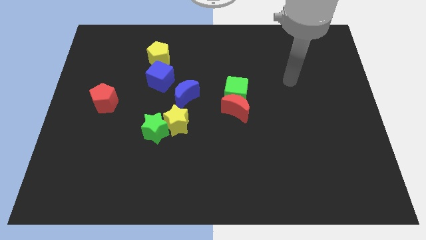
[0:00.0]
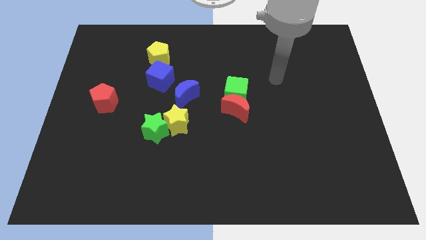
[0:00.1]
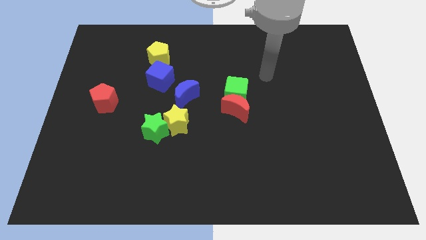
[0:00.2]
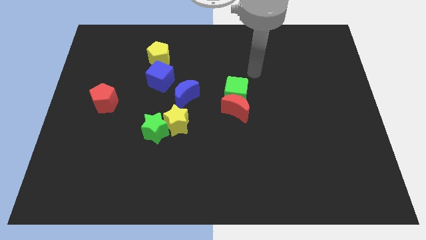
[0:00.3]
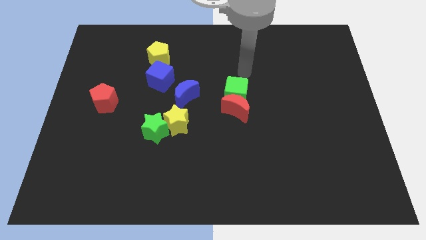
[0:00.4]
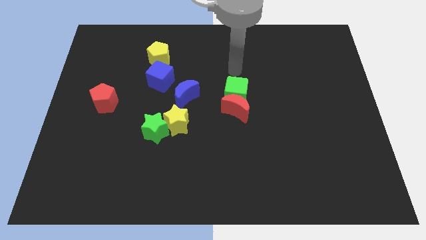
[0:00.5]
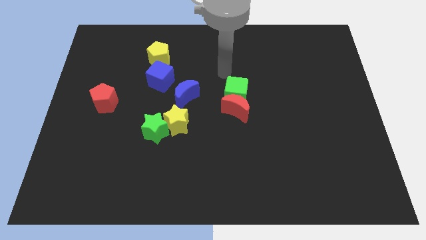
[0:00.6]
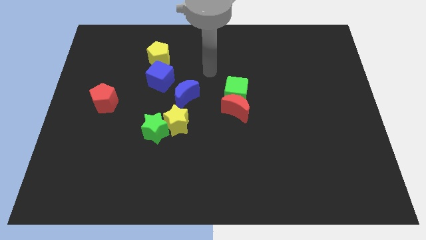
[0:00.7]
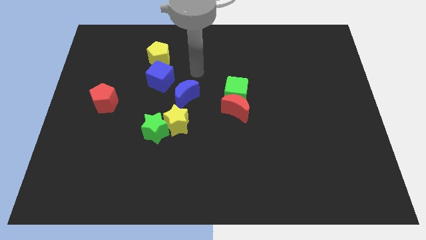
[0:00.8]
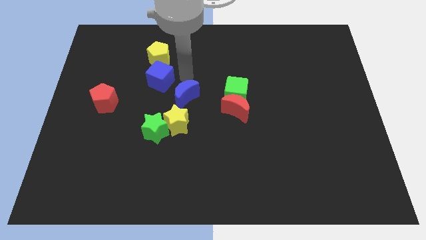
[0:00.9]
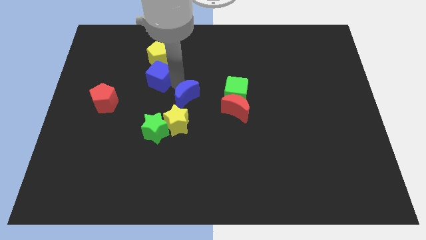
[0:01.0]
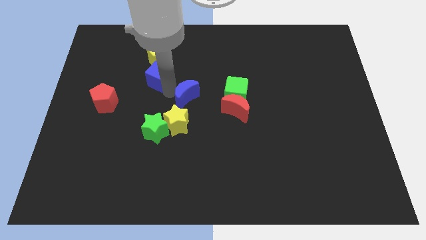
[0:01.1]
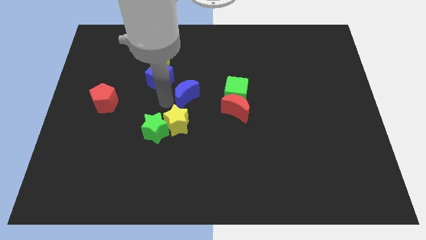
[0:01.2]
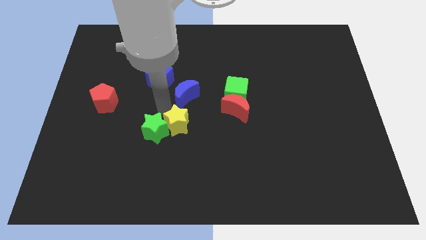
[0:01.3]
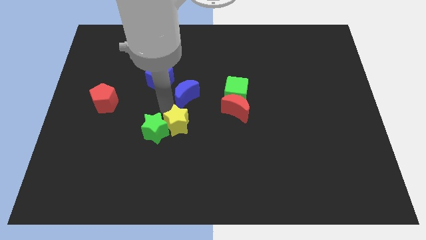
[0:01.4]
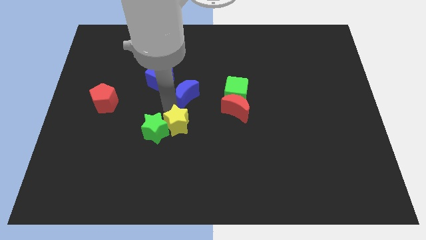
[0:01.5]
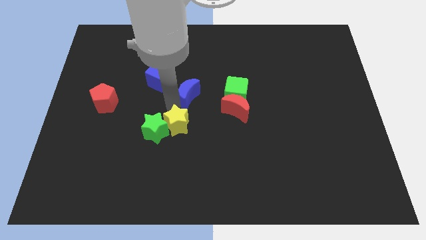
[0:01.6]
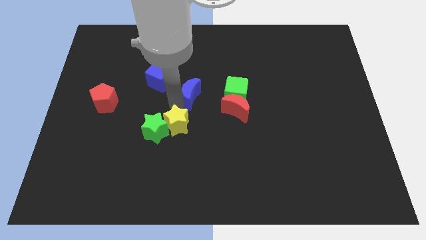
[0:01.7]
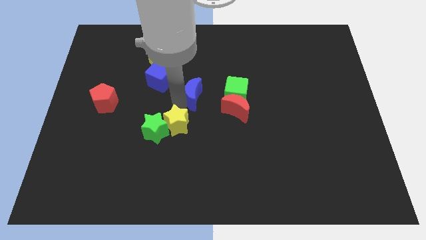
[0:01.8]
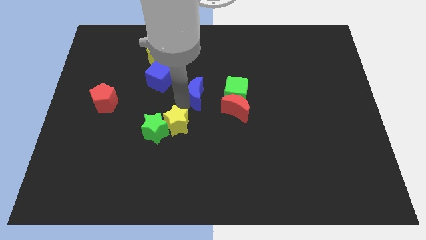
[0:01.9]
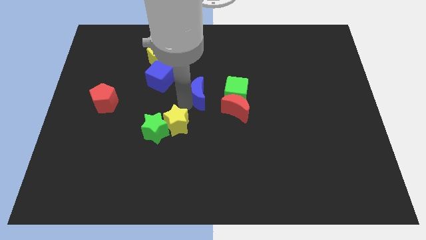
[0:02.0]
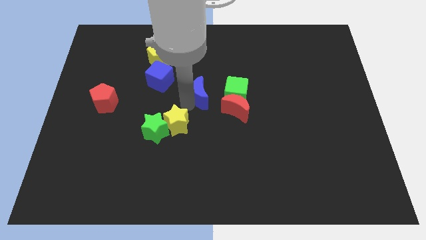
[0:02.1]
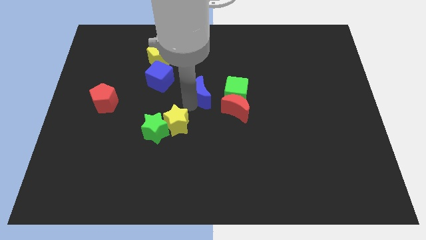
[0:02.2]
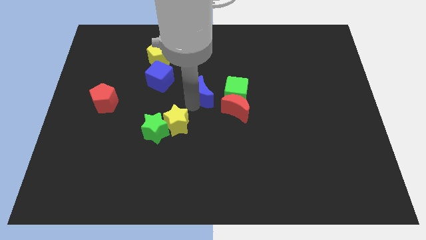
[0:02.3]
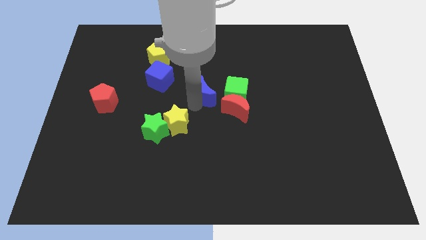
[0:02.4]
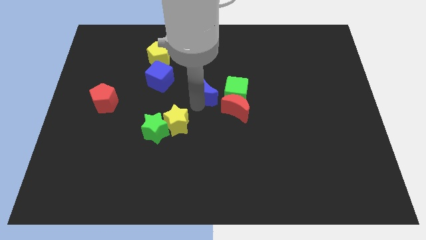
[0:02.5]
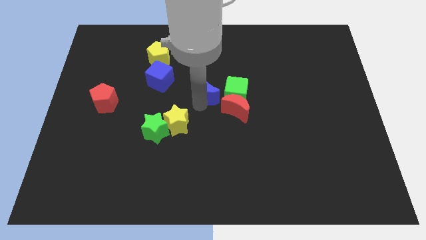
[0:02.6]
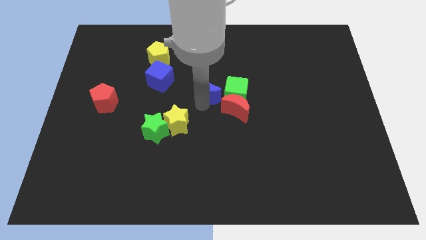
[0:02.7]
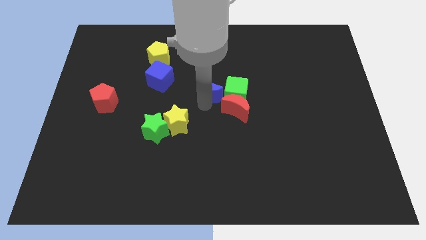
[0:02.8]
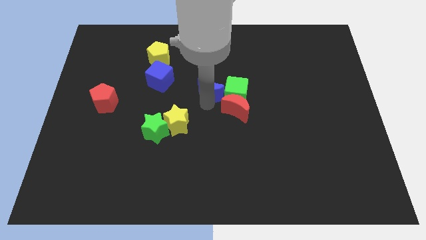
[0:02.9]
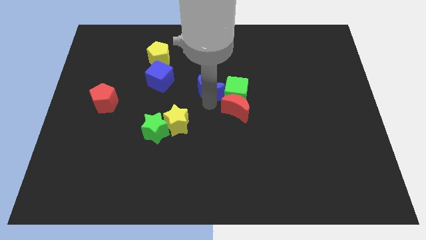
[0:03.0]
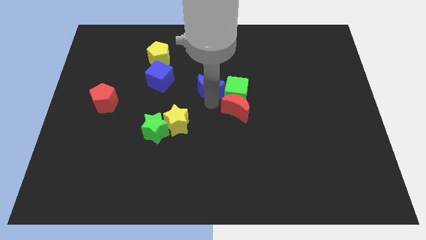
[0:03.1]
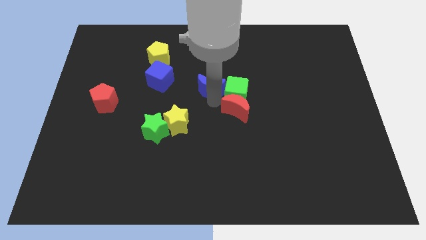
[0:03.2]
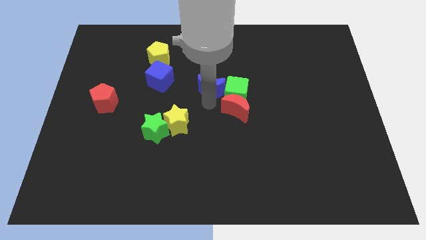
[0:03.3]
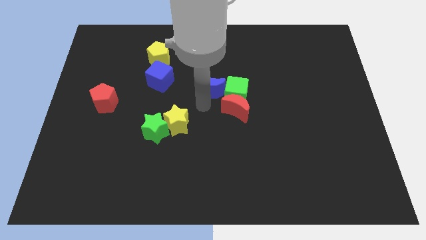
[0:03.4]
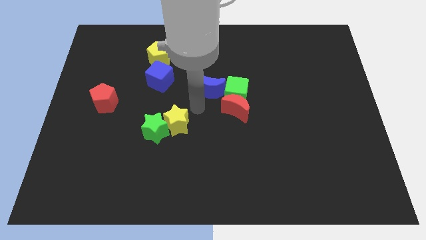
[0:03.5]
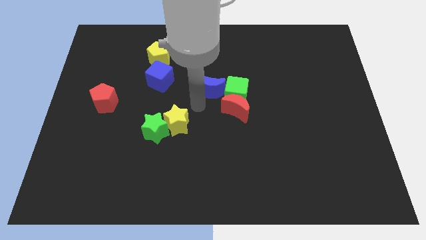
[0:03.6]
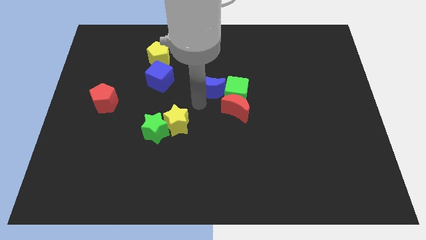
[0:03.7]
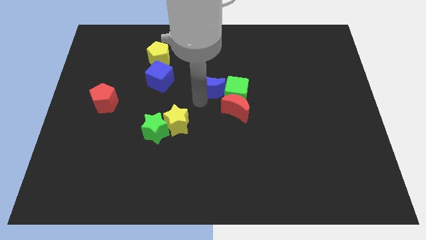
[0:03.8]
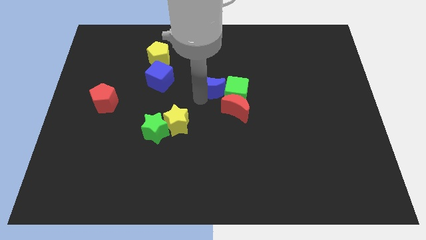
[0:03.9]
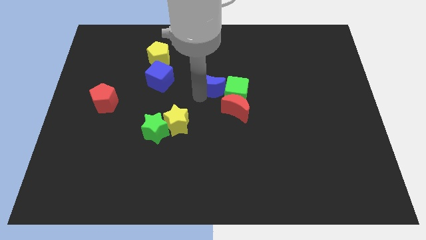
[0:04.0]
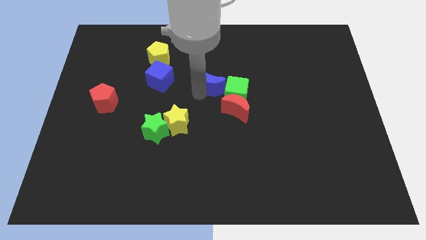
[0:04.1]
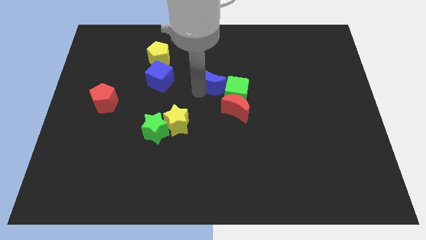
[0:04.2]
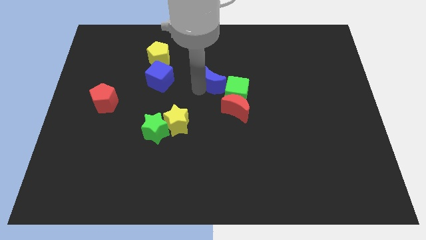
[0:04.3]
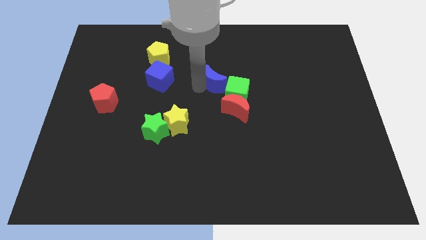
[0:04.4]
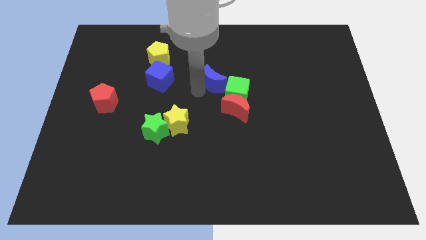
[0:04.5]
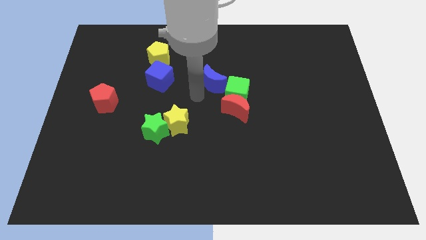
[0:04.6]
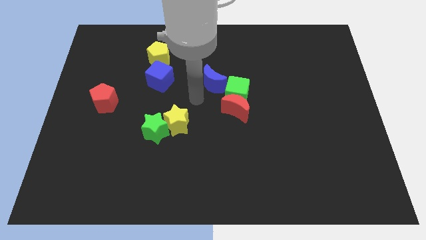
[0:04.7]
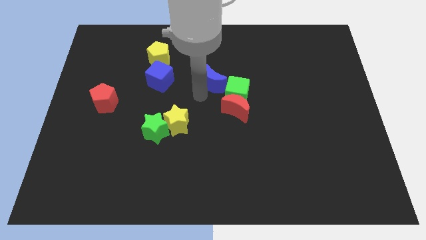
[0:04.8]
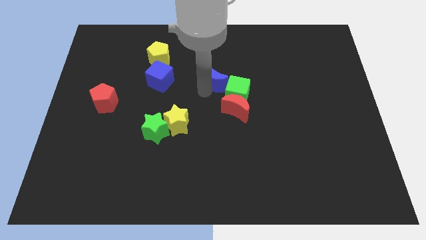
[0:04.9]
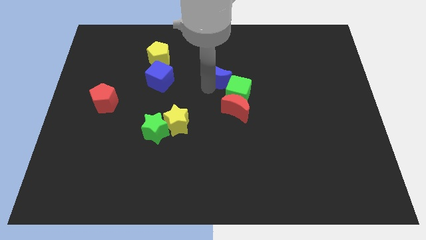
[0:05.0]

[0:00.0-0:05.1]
put the blue moon to the top side of the green cube

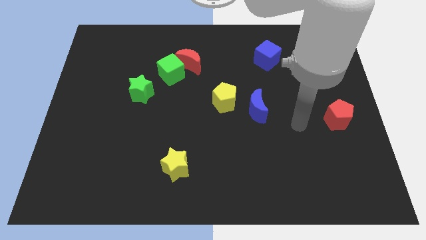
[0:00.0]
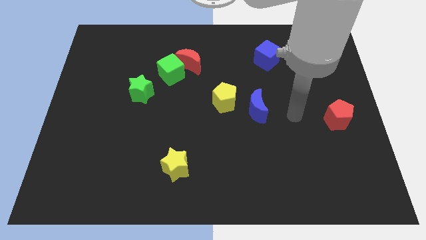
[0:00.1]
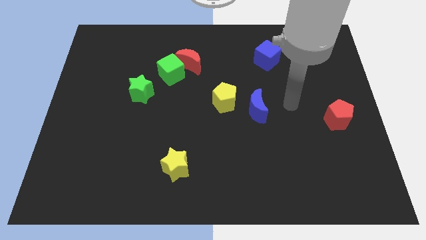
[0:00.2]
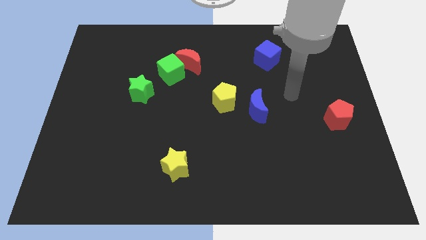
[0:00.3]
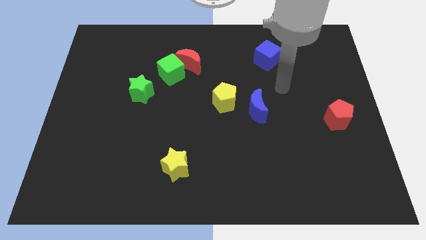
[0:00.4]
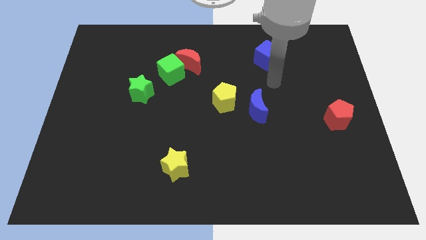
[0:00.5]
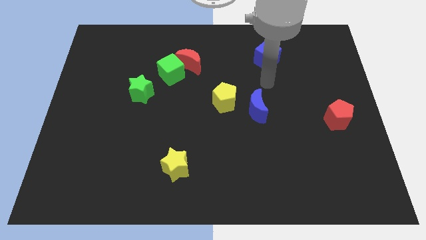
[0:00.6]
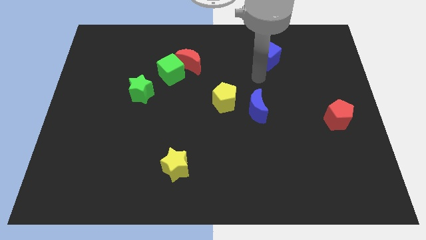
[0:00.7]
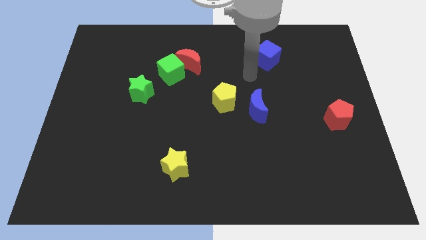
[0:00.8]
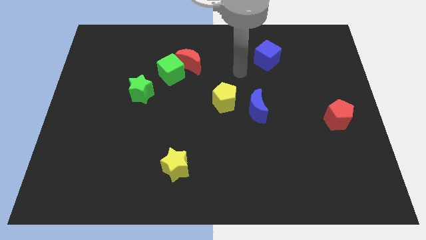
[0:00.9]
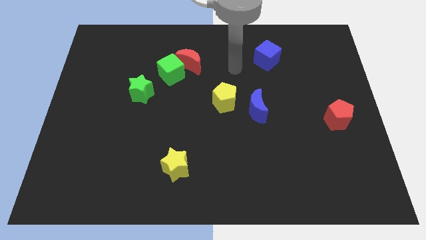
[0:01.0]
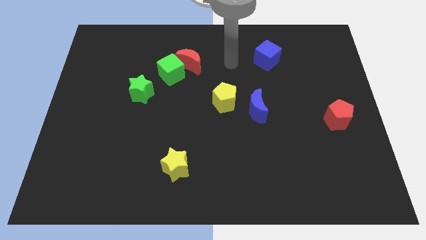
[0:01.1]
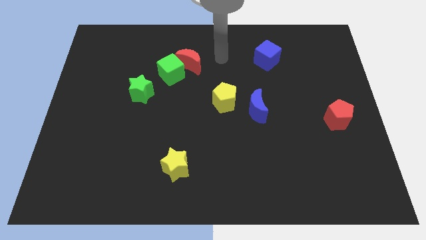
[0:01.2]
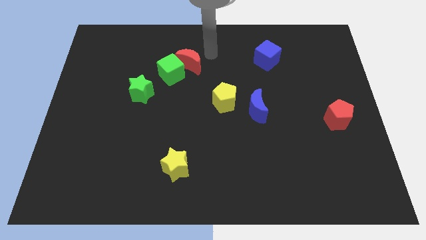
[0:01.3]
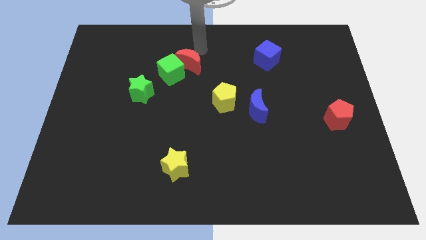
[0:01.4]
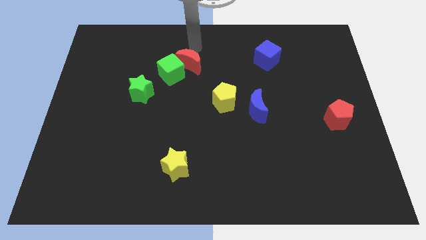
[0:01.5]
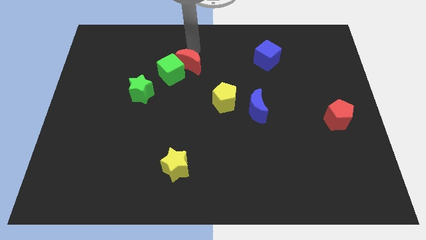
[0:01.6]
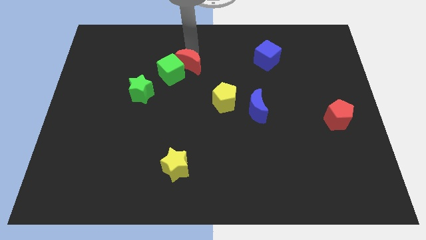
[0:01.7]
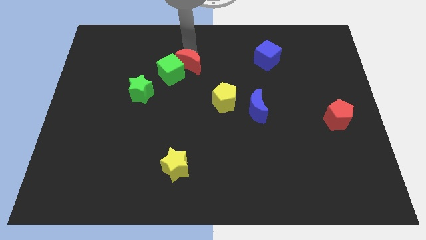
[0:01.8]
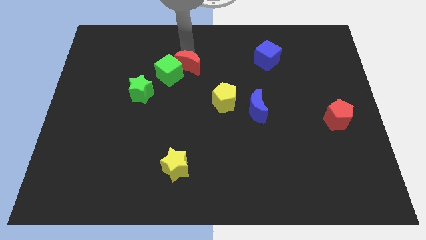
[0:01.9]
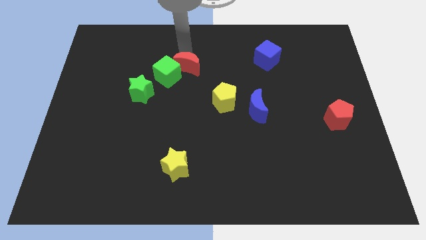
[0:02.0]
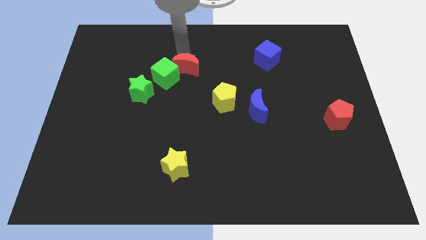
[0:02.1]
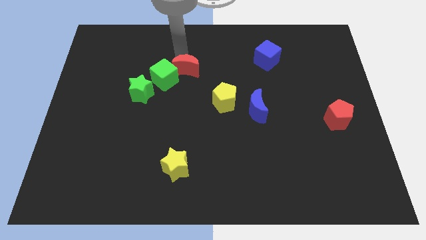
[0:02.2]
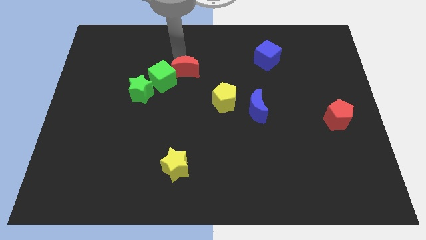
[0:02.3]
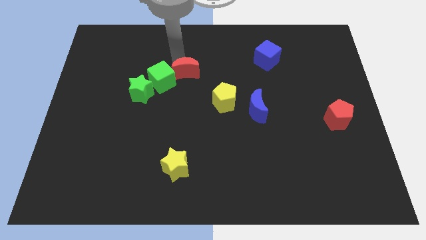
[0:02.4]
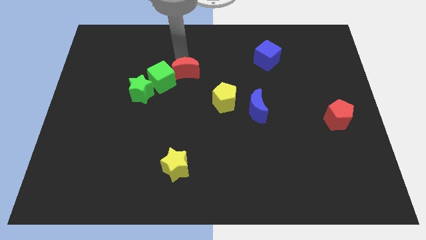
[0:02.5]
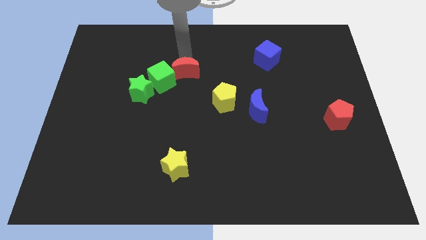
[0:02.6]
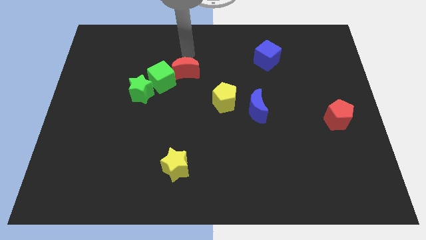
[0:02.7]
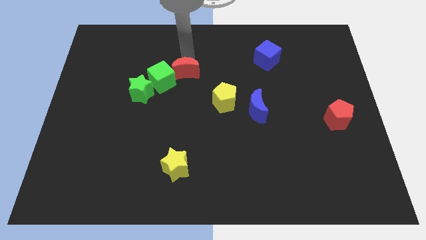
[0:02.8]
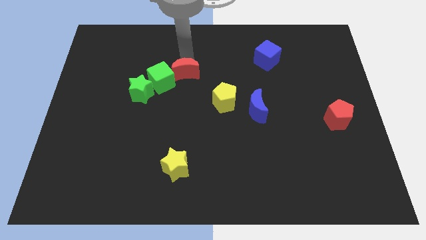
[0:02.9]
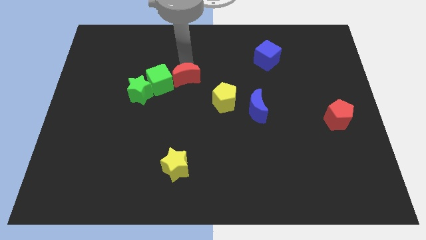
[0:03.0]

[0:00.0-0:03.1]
slide the red moon right of the green star
